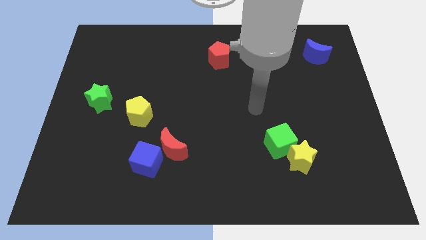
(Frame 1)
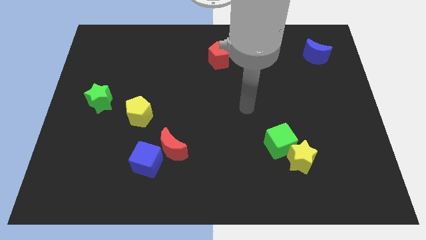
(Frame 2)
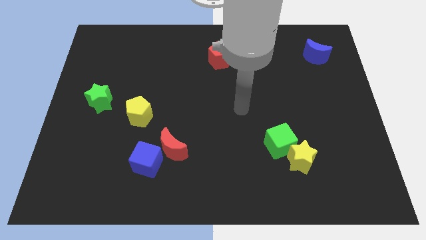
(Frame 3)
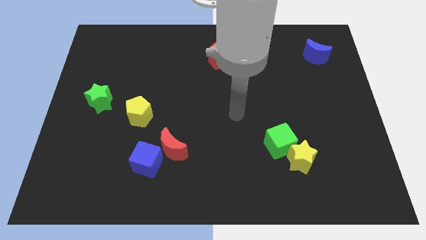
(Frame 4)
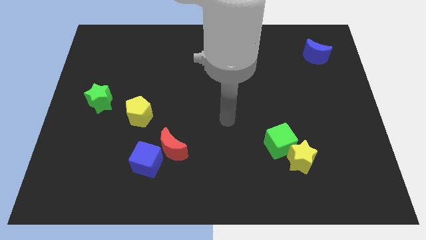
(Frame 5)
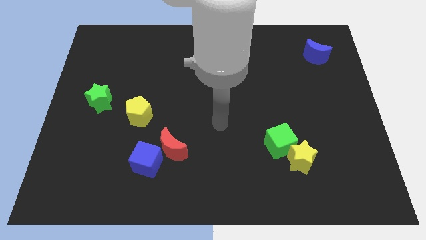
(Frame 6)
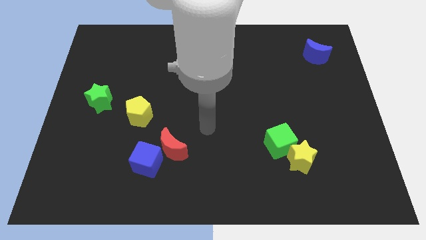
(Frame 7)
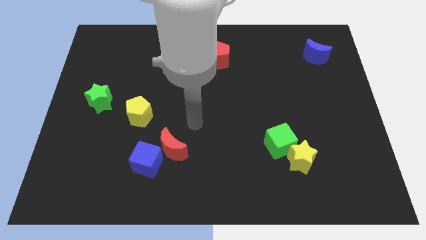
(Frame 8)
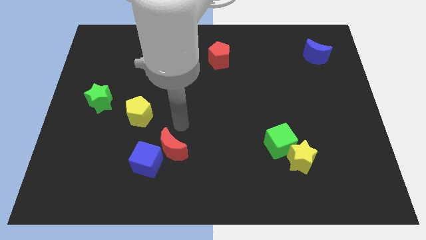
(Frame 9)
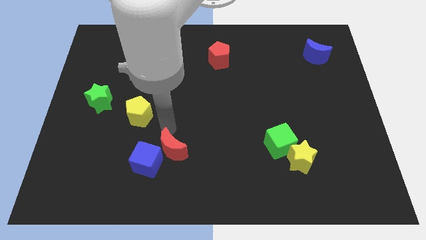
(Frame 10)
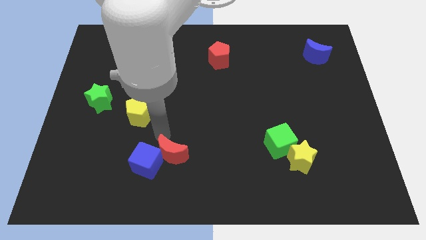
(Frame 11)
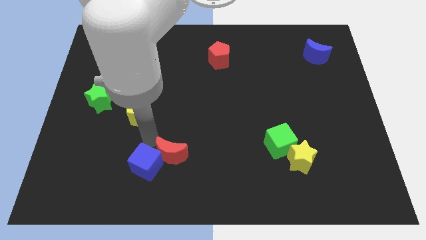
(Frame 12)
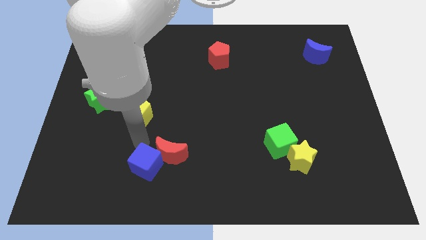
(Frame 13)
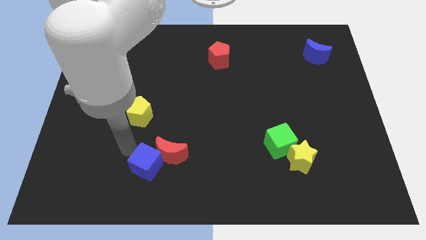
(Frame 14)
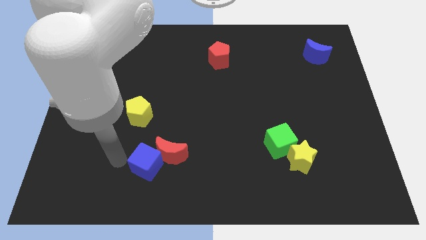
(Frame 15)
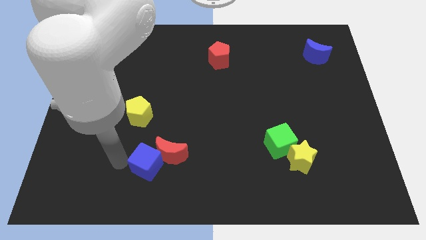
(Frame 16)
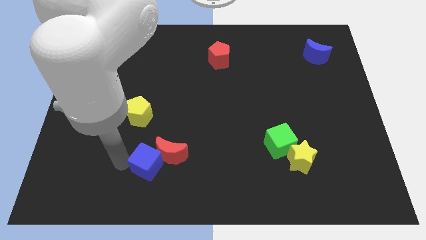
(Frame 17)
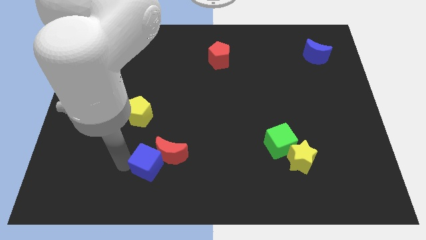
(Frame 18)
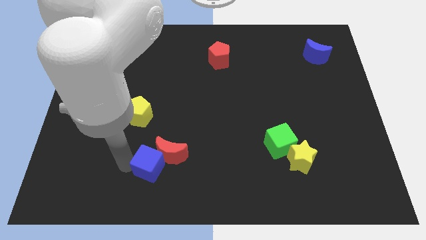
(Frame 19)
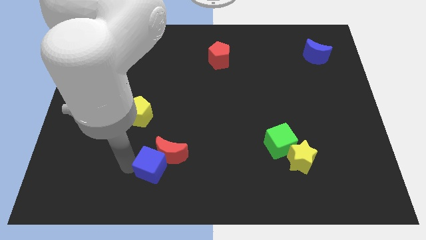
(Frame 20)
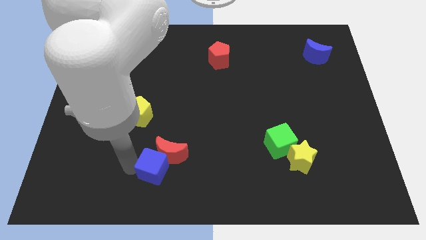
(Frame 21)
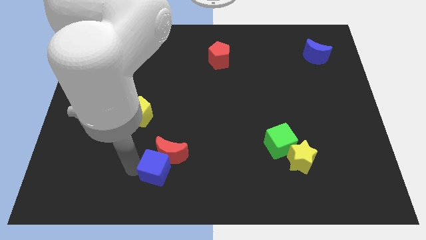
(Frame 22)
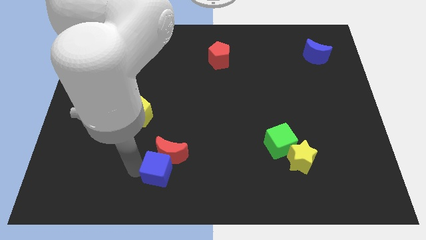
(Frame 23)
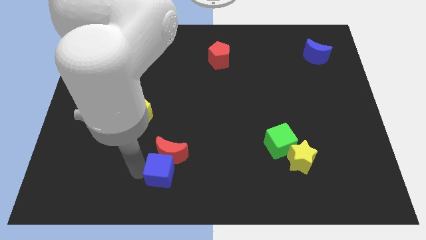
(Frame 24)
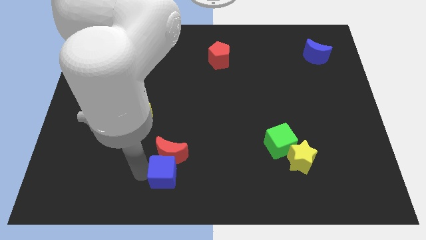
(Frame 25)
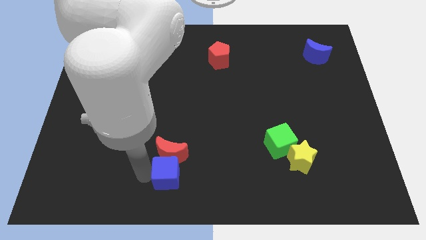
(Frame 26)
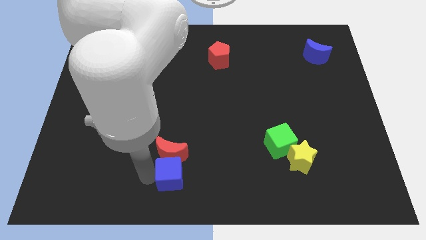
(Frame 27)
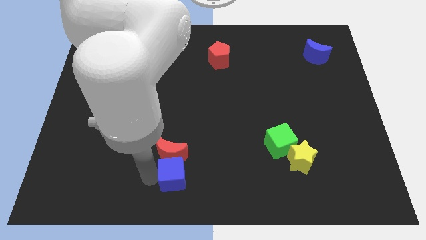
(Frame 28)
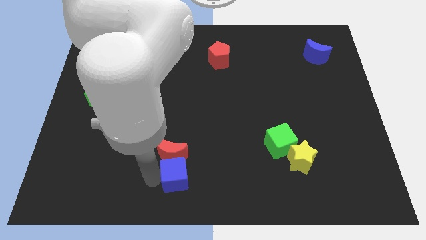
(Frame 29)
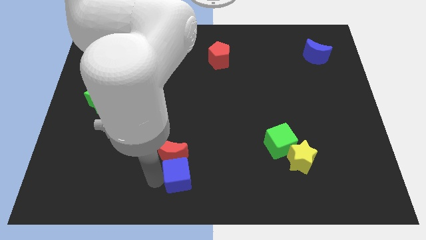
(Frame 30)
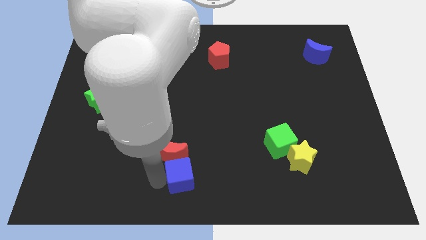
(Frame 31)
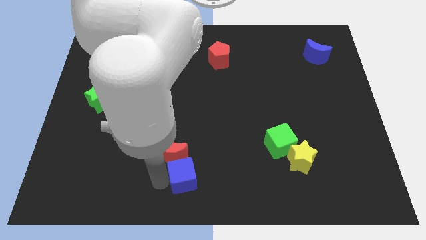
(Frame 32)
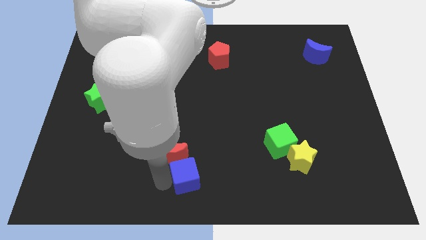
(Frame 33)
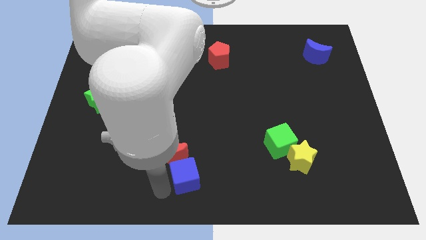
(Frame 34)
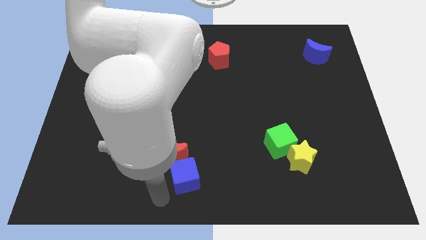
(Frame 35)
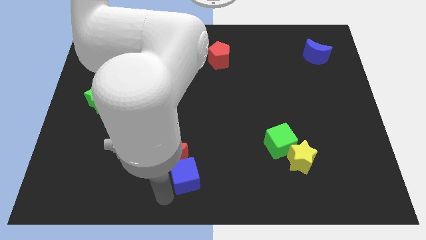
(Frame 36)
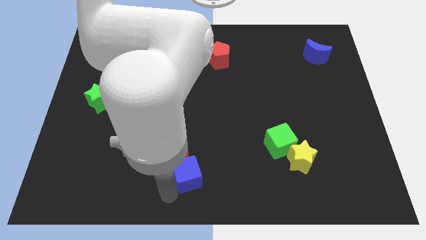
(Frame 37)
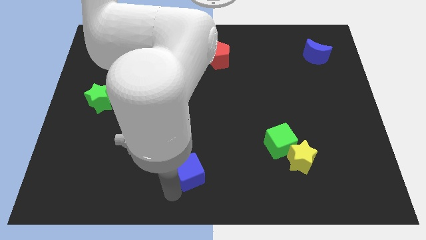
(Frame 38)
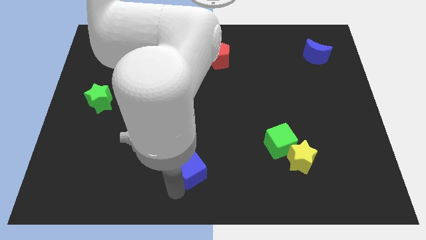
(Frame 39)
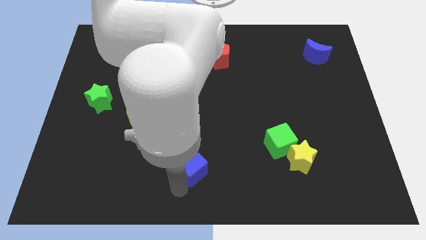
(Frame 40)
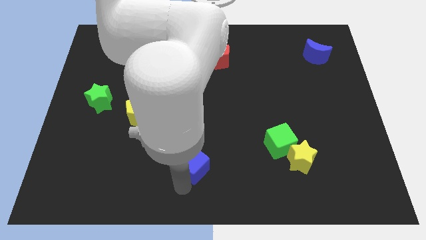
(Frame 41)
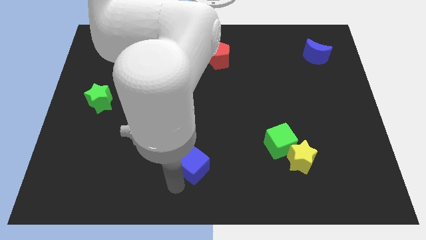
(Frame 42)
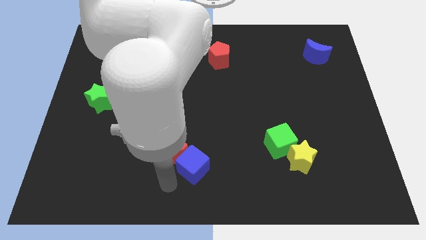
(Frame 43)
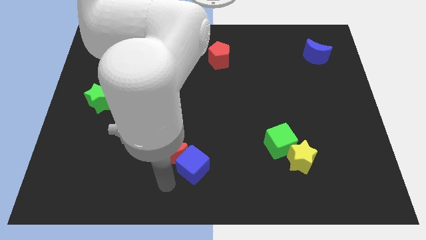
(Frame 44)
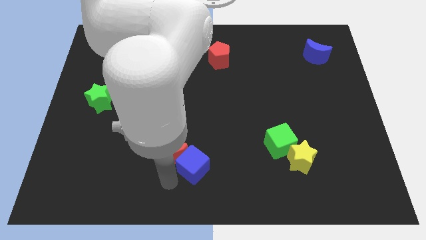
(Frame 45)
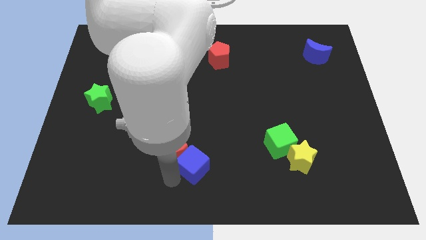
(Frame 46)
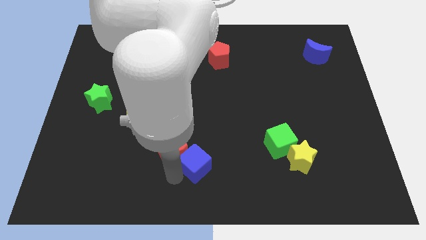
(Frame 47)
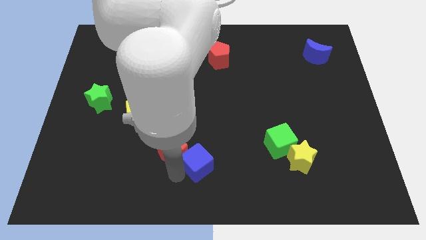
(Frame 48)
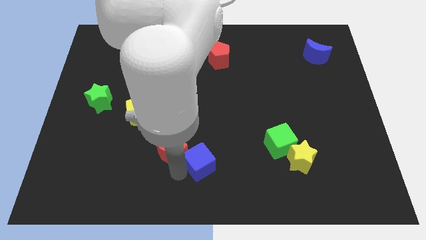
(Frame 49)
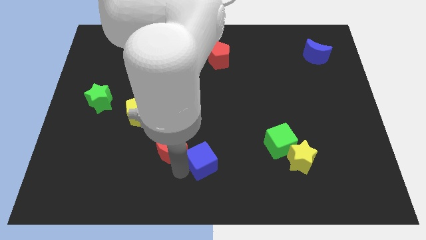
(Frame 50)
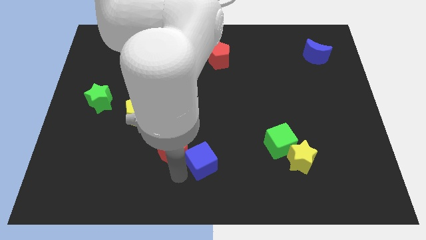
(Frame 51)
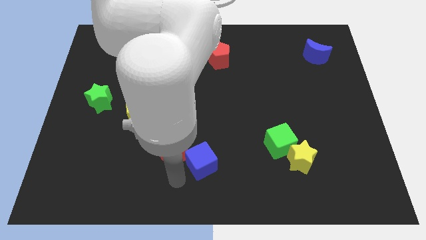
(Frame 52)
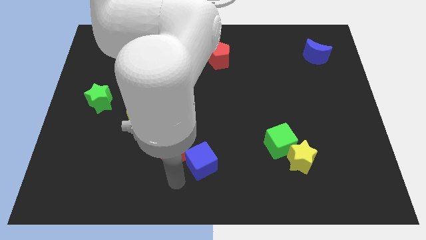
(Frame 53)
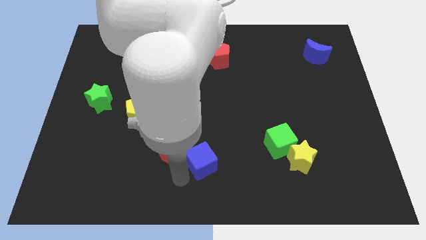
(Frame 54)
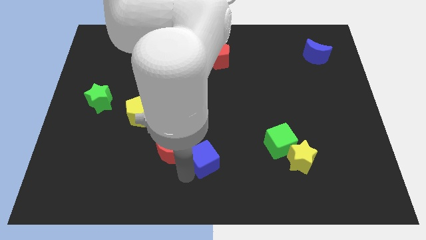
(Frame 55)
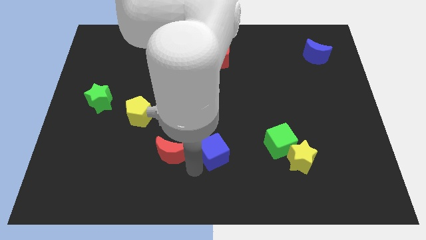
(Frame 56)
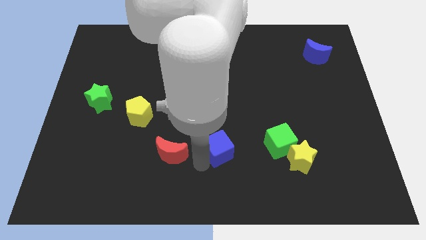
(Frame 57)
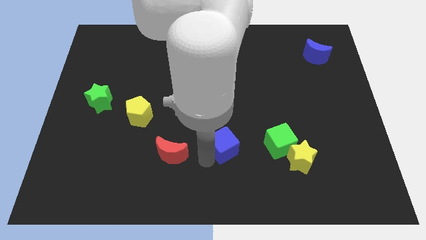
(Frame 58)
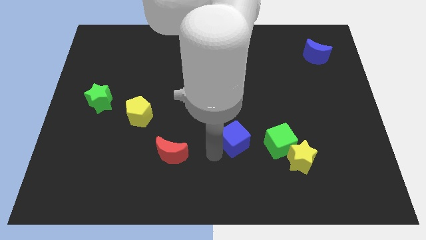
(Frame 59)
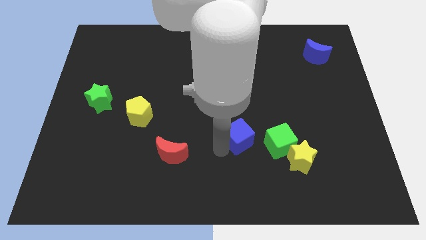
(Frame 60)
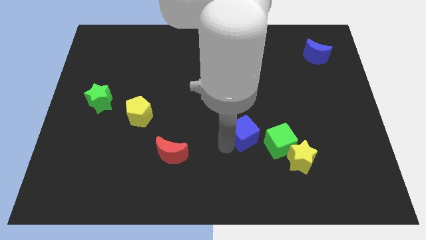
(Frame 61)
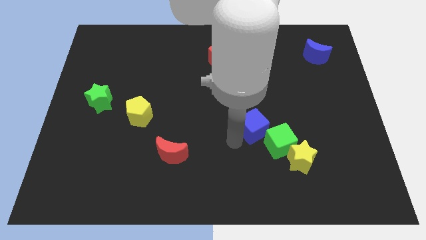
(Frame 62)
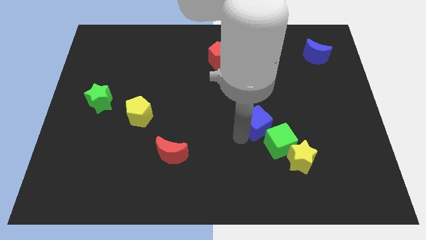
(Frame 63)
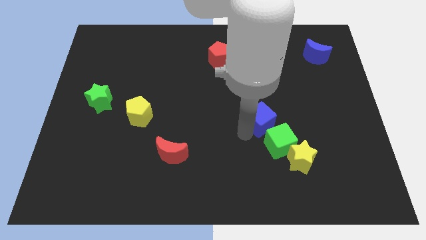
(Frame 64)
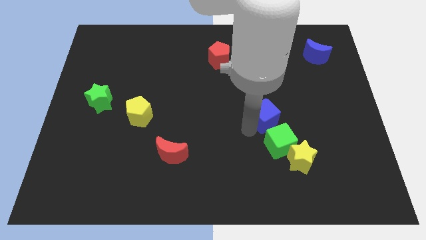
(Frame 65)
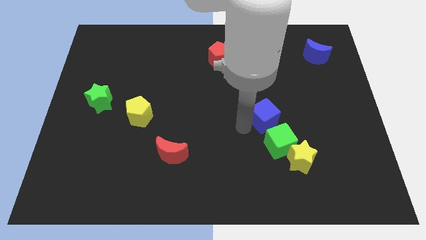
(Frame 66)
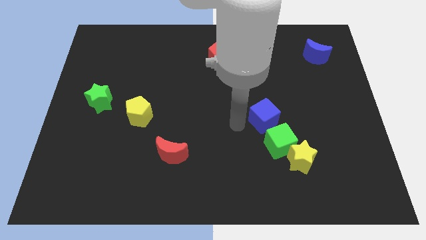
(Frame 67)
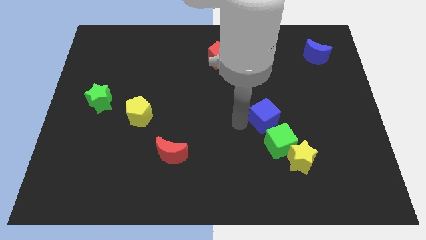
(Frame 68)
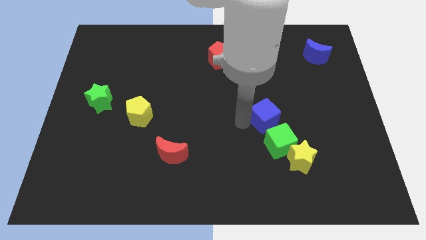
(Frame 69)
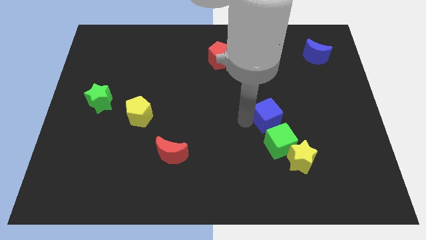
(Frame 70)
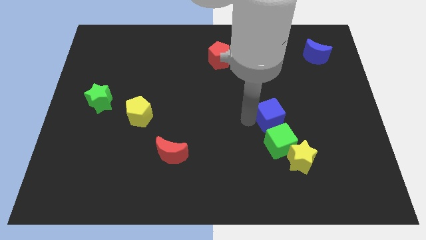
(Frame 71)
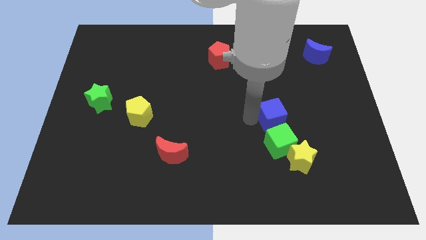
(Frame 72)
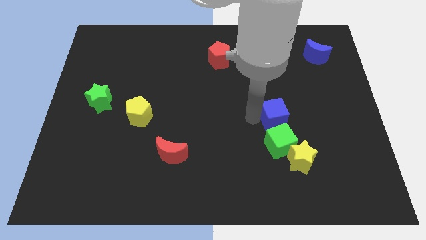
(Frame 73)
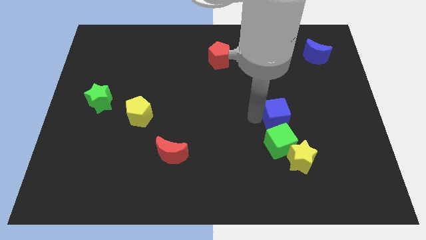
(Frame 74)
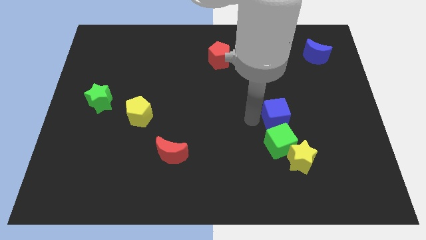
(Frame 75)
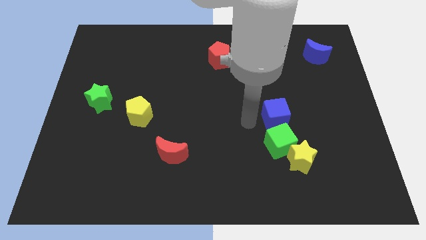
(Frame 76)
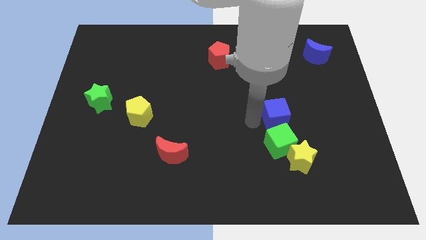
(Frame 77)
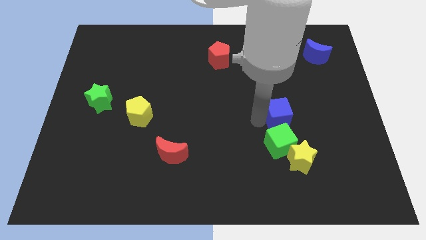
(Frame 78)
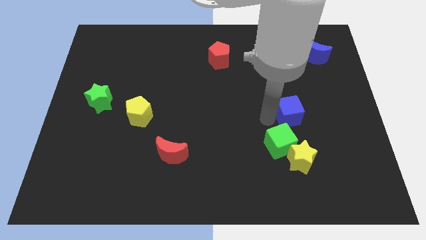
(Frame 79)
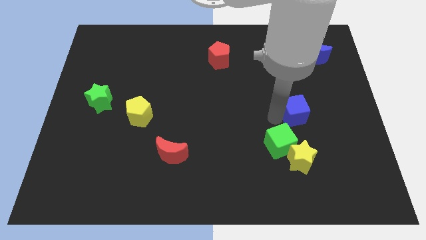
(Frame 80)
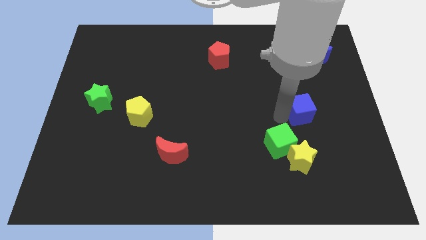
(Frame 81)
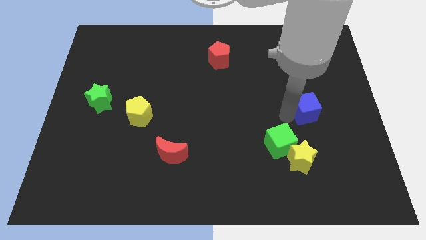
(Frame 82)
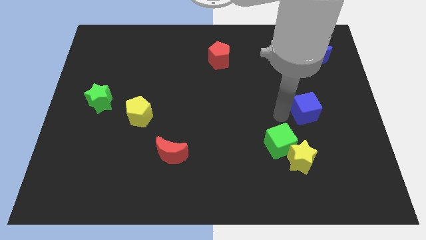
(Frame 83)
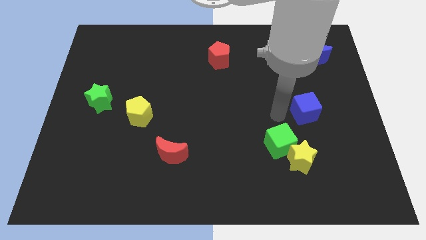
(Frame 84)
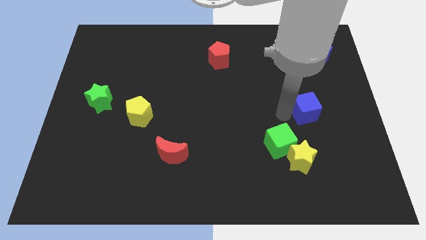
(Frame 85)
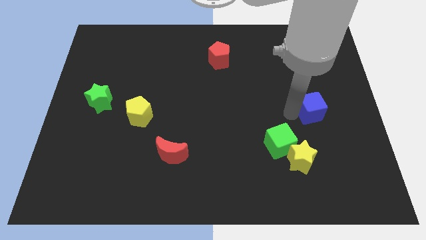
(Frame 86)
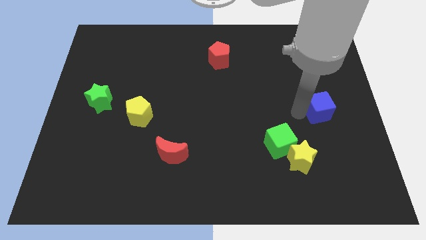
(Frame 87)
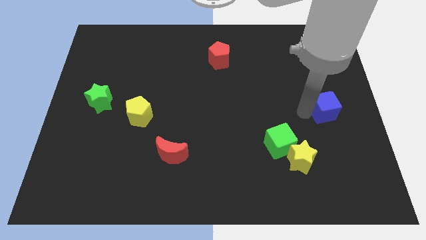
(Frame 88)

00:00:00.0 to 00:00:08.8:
put the blue cube to the right side
